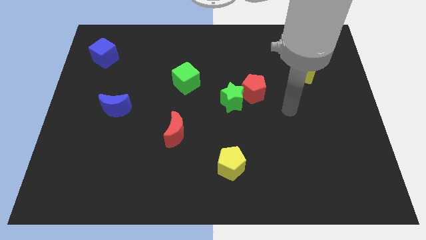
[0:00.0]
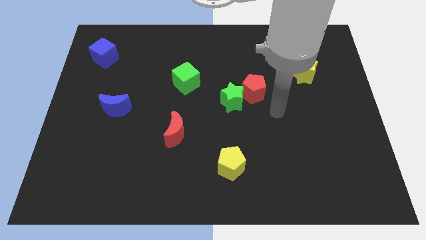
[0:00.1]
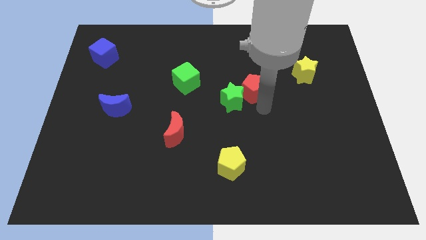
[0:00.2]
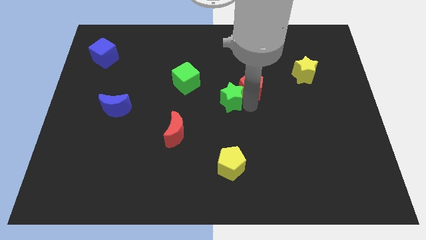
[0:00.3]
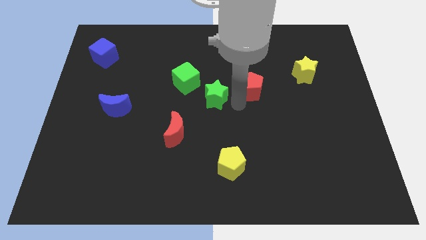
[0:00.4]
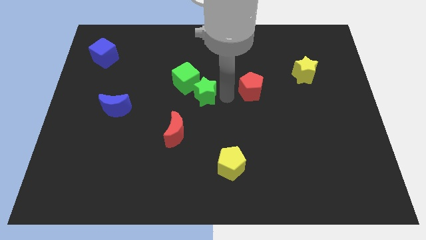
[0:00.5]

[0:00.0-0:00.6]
move the red pentagon away from the green star

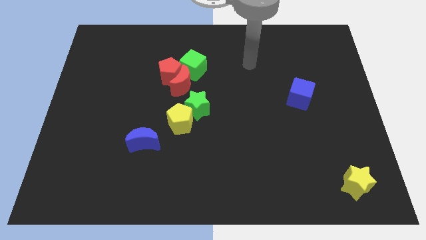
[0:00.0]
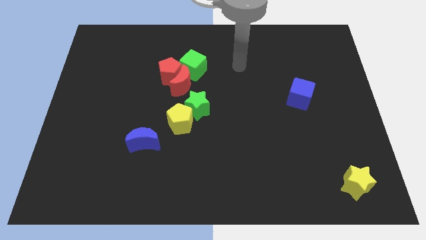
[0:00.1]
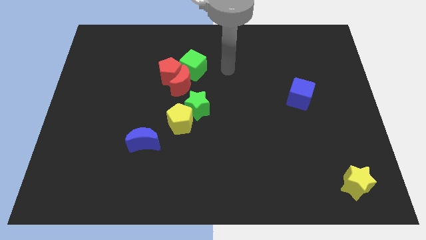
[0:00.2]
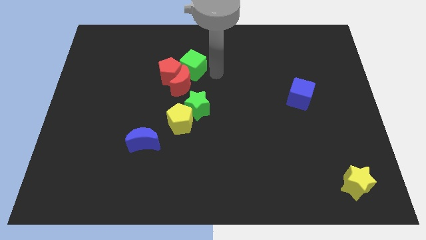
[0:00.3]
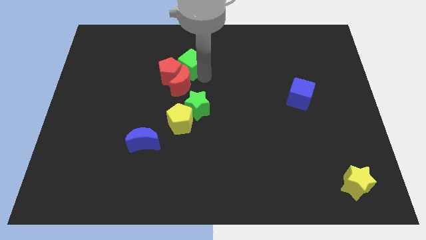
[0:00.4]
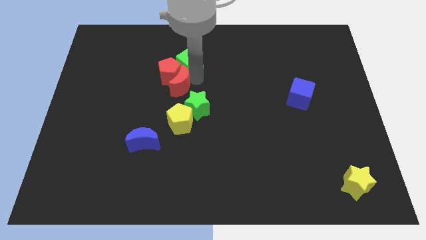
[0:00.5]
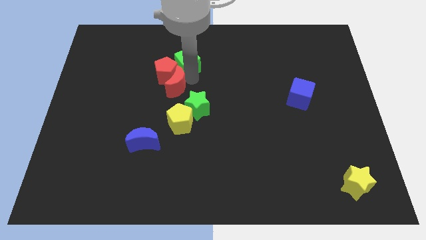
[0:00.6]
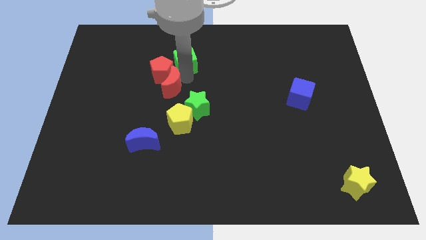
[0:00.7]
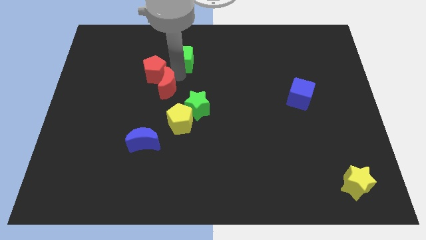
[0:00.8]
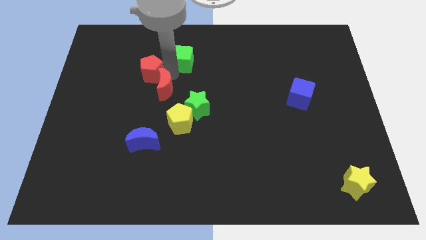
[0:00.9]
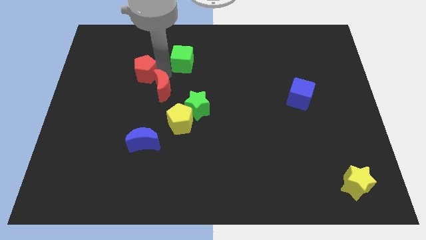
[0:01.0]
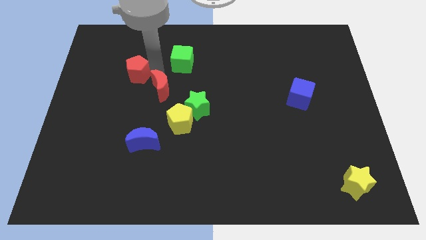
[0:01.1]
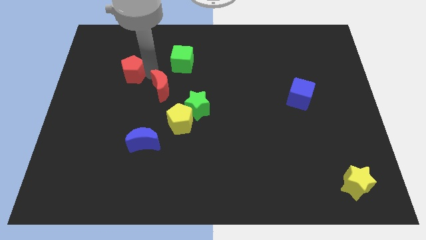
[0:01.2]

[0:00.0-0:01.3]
pull the red pentagon apart from the red moon and green cube

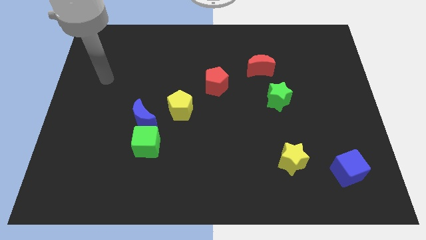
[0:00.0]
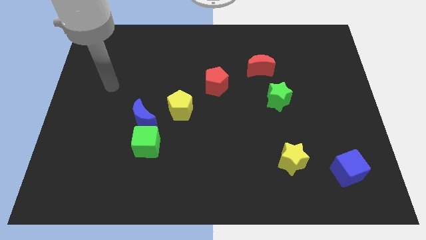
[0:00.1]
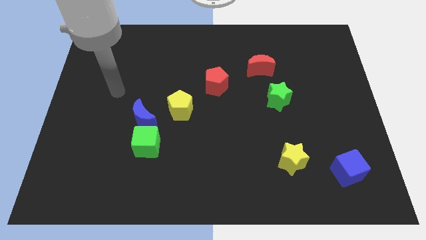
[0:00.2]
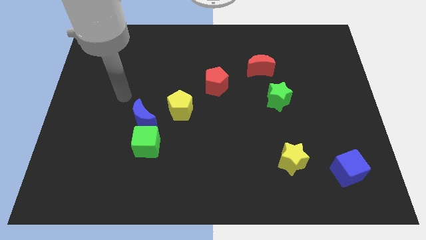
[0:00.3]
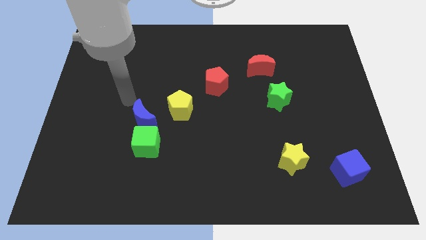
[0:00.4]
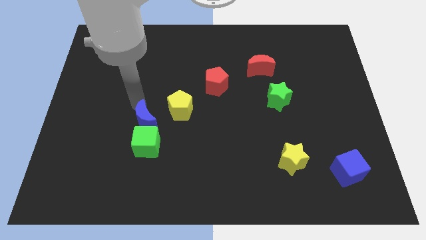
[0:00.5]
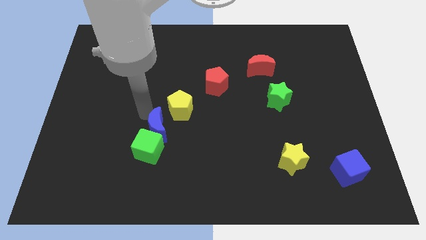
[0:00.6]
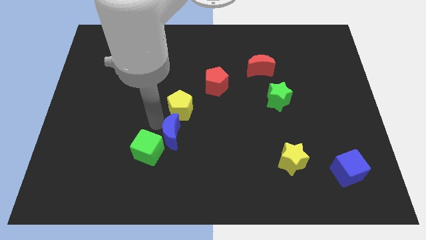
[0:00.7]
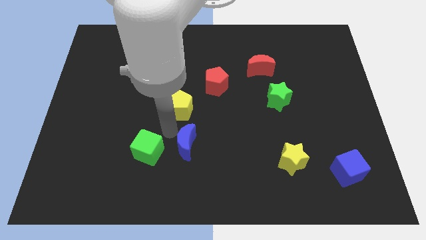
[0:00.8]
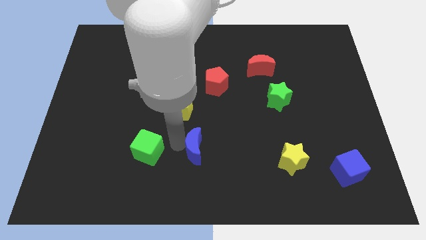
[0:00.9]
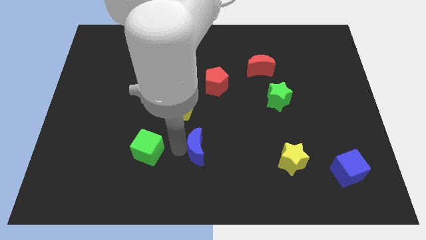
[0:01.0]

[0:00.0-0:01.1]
separate the green cube from the blue moon

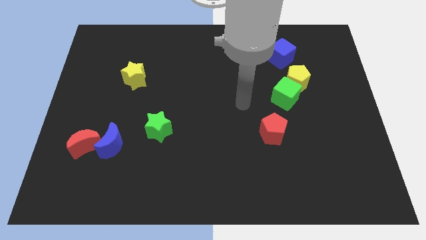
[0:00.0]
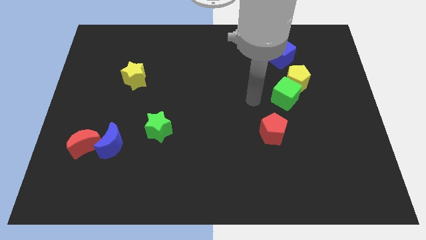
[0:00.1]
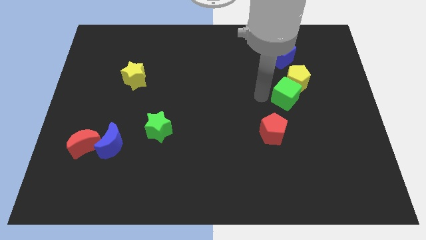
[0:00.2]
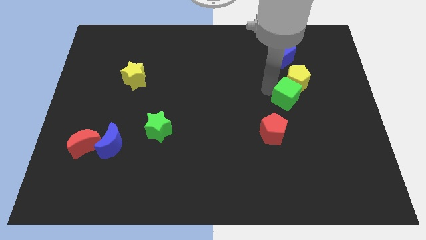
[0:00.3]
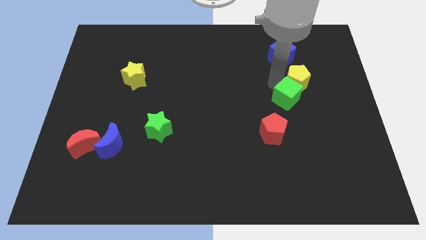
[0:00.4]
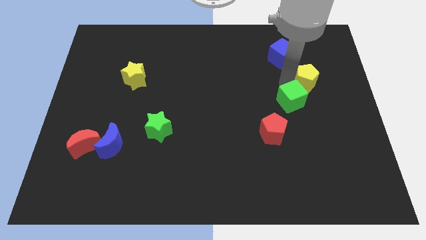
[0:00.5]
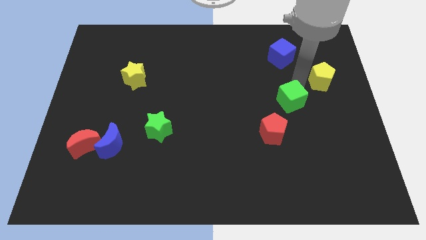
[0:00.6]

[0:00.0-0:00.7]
separate the green cube from the yellow pentagon

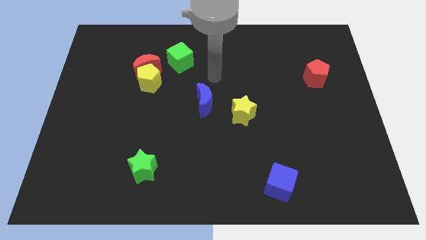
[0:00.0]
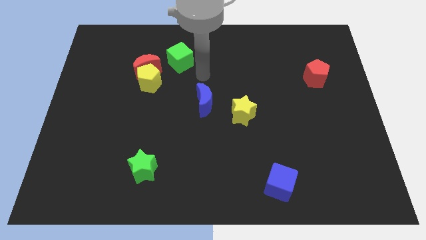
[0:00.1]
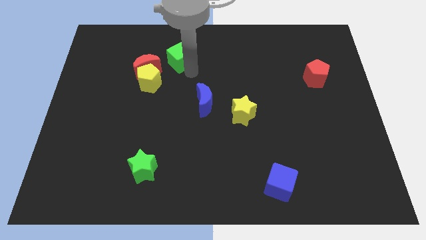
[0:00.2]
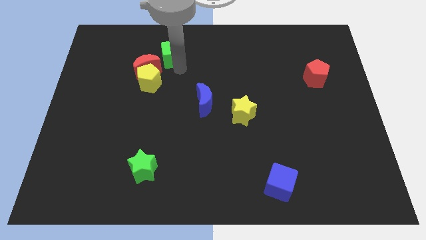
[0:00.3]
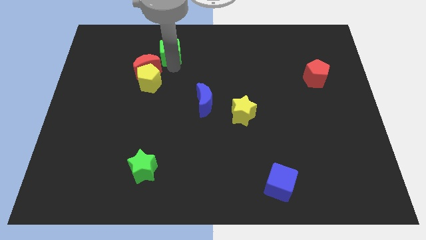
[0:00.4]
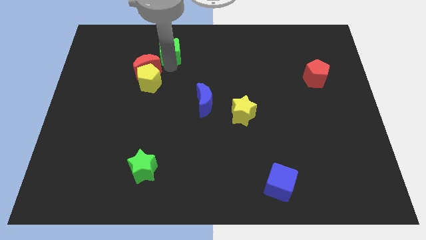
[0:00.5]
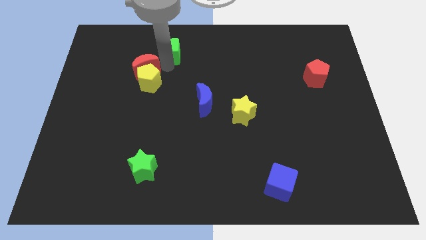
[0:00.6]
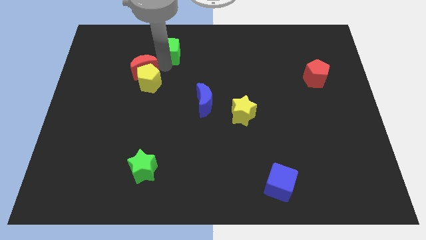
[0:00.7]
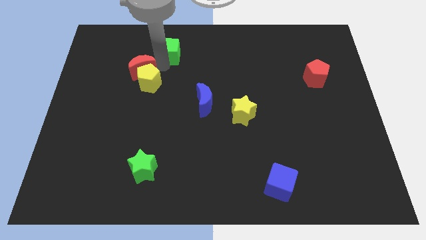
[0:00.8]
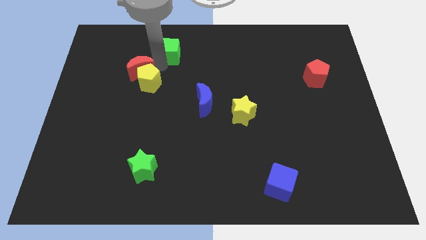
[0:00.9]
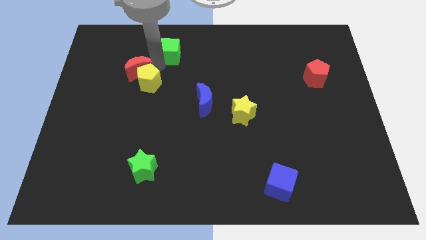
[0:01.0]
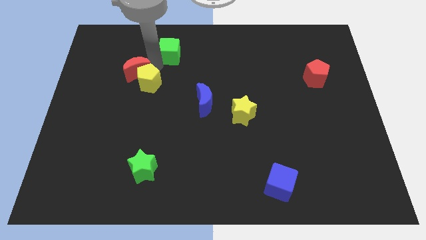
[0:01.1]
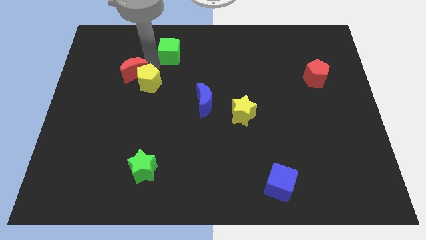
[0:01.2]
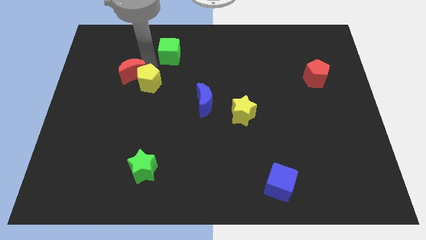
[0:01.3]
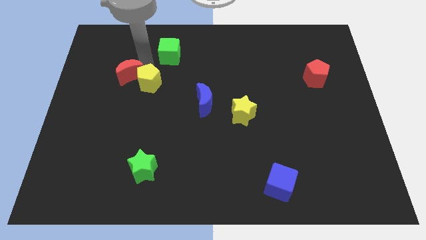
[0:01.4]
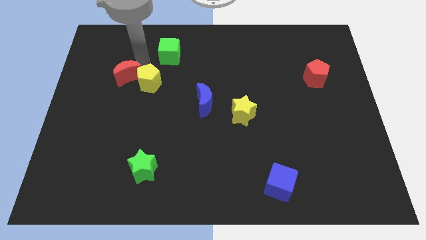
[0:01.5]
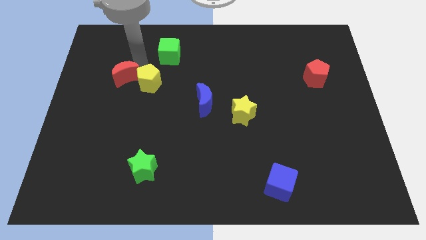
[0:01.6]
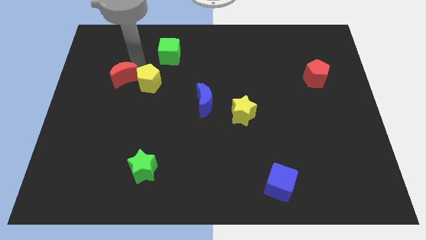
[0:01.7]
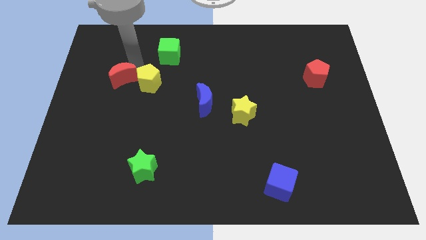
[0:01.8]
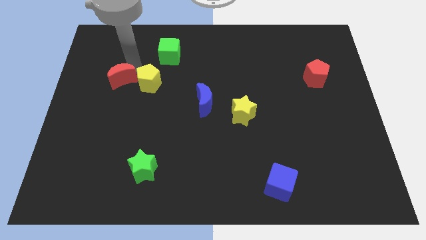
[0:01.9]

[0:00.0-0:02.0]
pull the red moon apart from the yellow pentagon and green cube

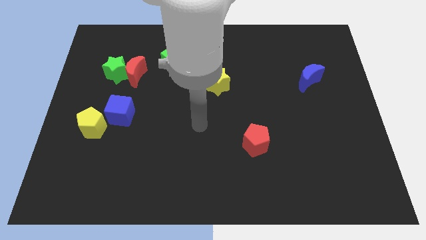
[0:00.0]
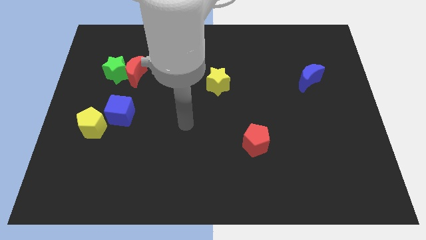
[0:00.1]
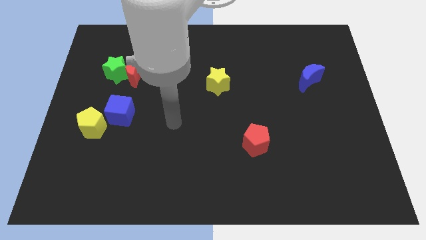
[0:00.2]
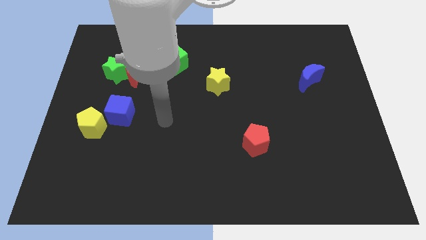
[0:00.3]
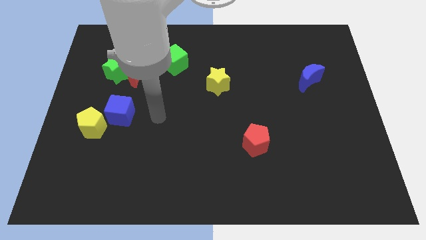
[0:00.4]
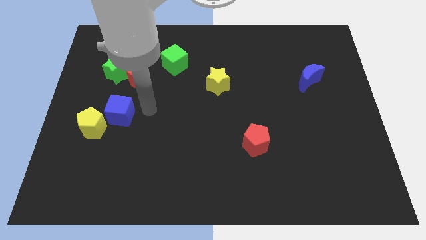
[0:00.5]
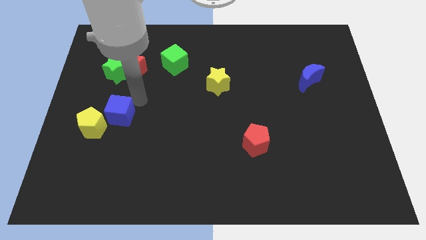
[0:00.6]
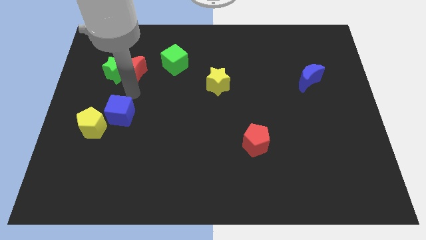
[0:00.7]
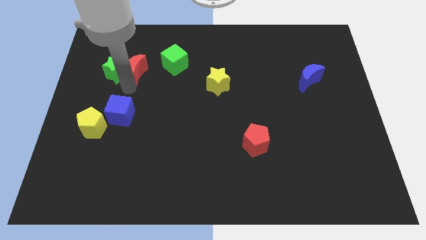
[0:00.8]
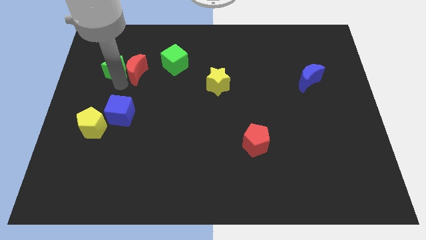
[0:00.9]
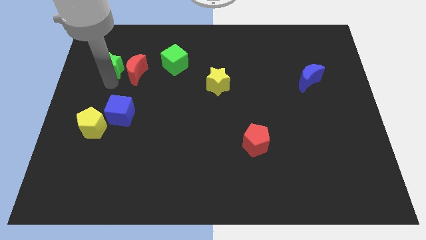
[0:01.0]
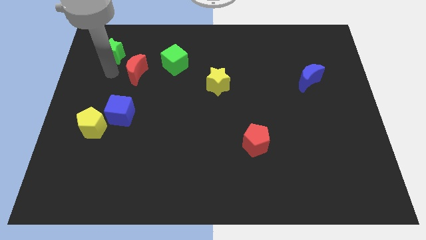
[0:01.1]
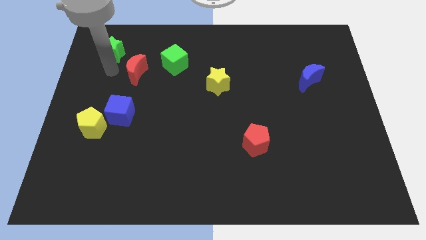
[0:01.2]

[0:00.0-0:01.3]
separate the red moon from the green star

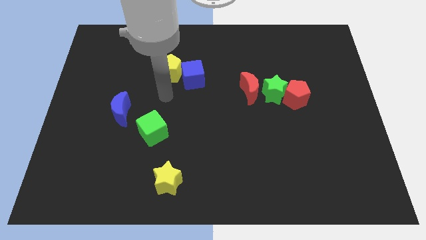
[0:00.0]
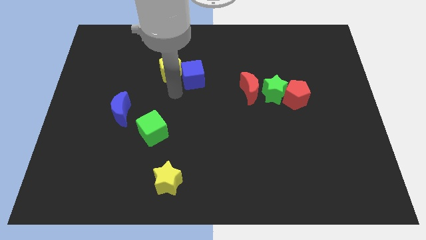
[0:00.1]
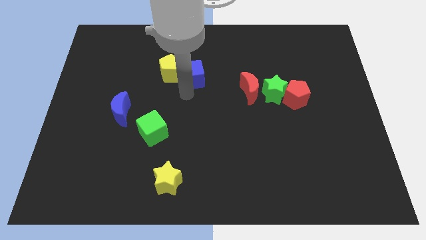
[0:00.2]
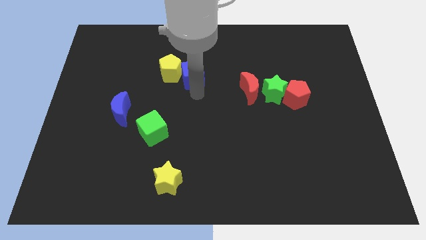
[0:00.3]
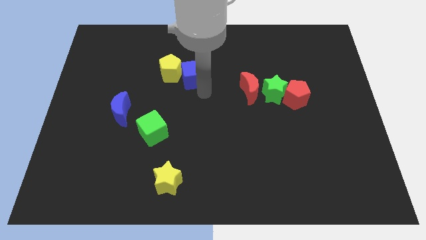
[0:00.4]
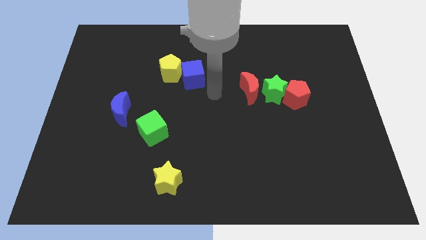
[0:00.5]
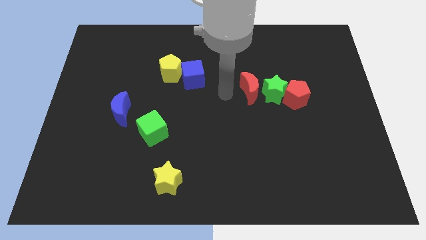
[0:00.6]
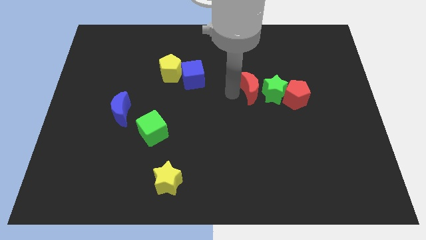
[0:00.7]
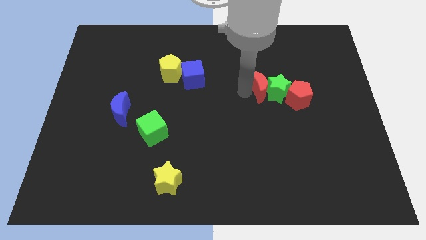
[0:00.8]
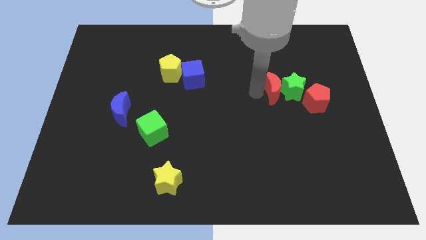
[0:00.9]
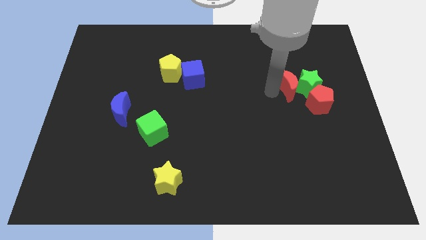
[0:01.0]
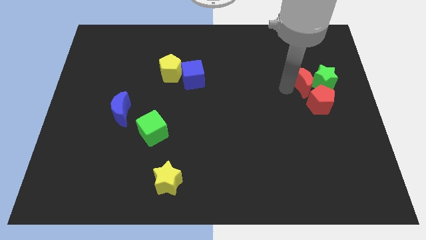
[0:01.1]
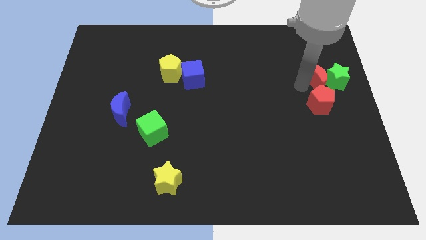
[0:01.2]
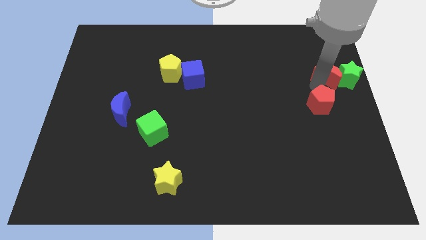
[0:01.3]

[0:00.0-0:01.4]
pull the red pentagon apart from the green star

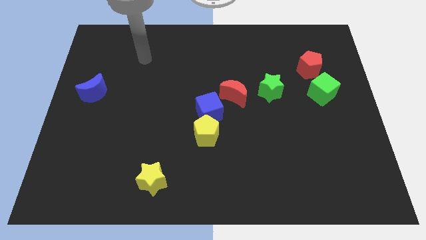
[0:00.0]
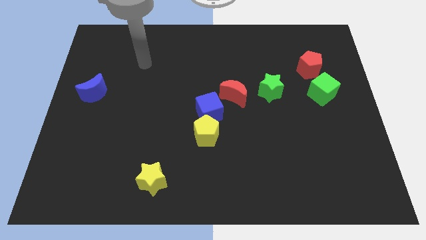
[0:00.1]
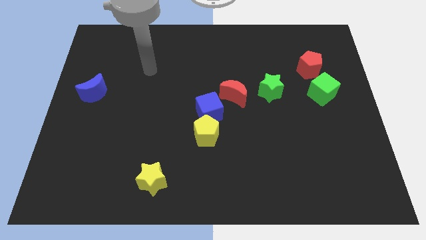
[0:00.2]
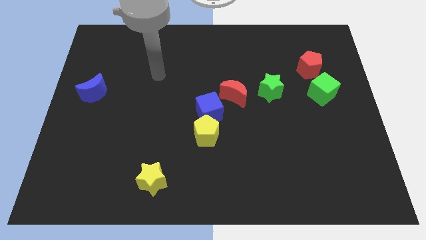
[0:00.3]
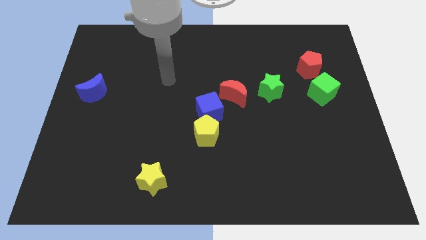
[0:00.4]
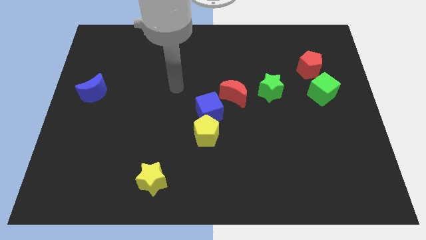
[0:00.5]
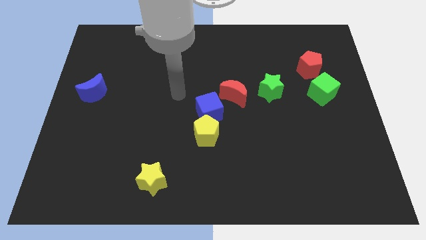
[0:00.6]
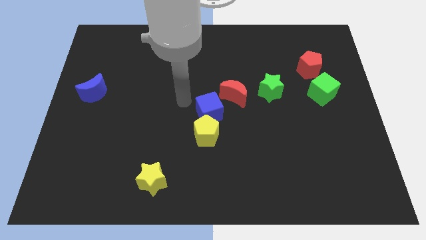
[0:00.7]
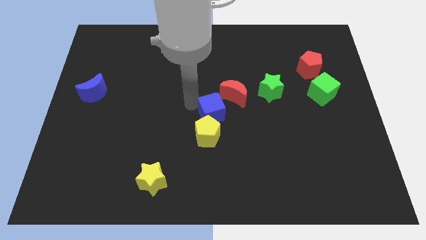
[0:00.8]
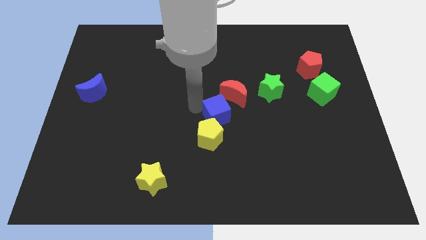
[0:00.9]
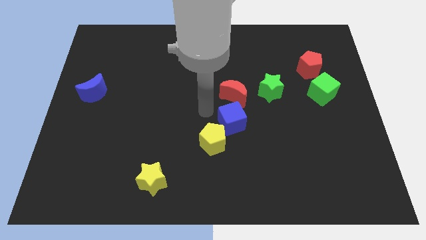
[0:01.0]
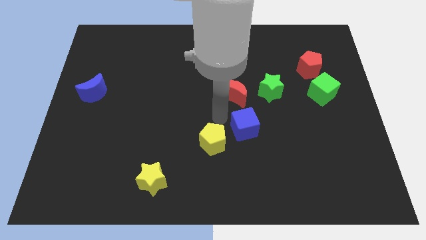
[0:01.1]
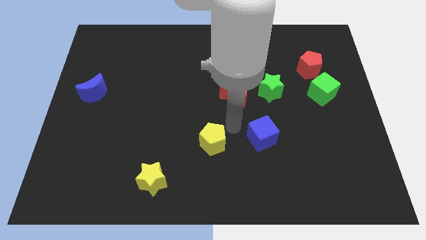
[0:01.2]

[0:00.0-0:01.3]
separate the yellow pentagon from the blue cube
